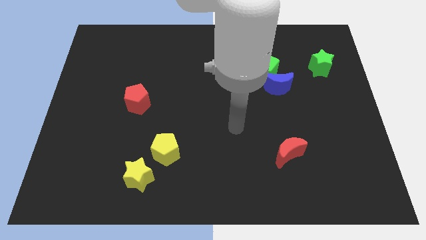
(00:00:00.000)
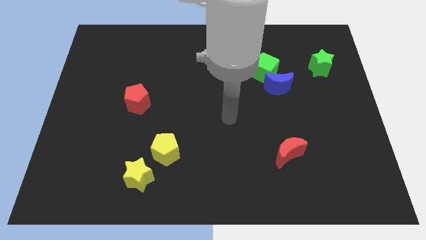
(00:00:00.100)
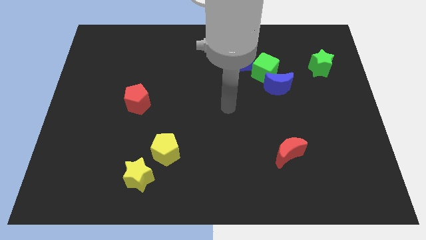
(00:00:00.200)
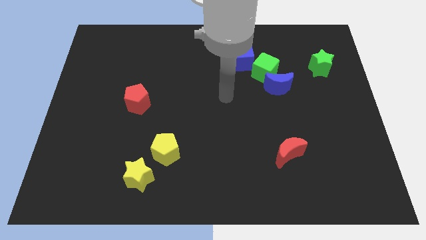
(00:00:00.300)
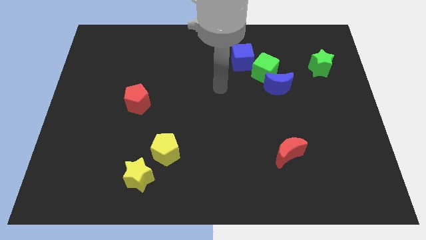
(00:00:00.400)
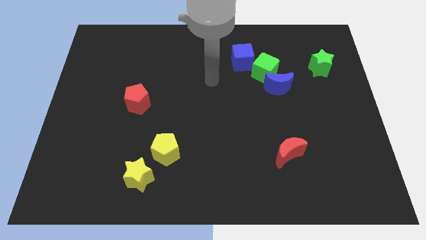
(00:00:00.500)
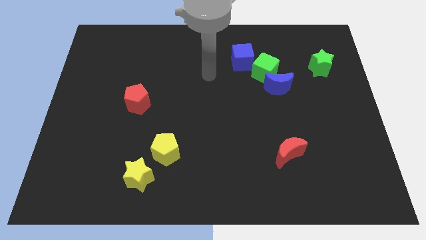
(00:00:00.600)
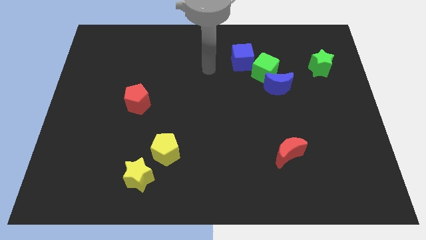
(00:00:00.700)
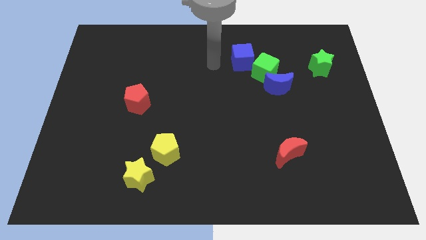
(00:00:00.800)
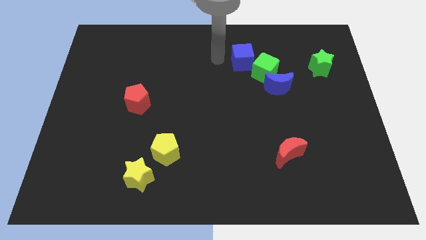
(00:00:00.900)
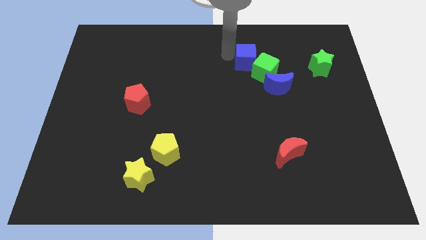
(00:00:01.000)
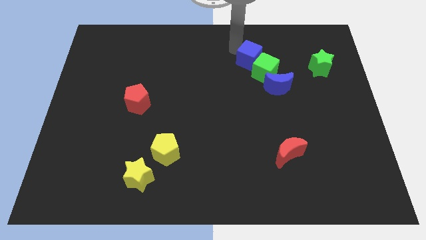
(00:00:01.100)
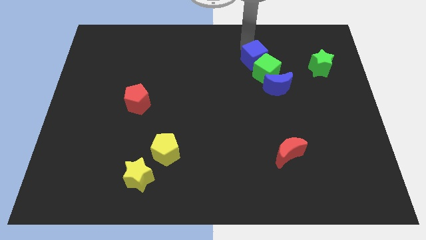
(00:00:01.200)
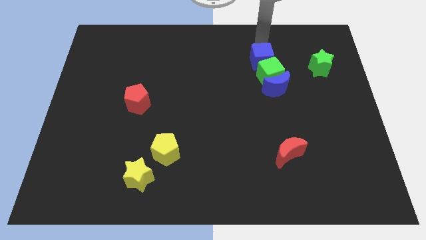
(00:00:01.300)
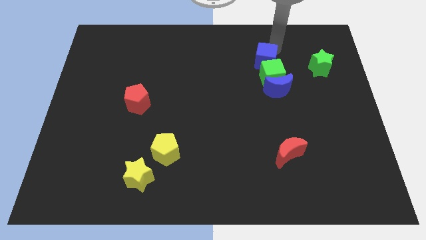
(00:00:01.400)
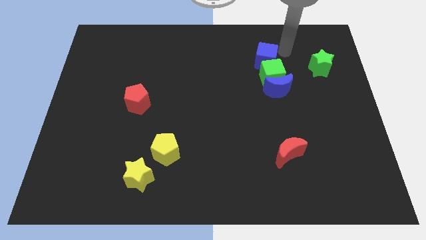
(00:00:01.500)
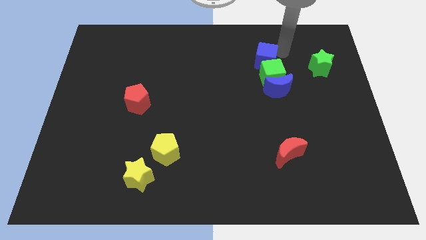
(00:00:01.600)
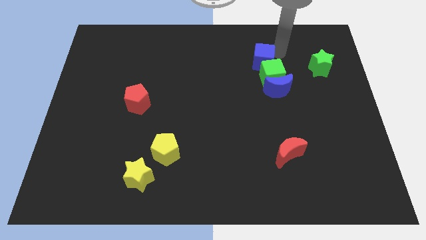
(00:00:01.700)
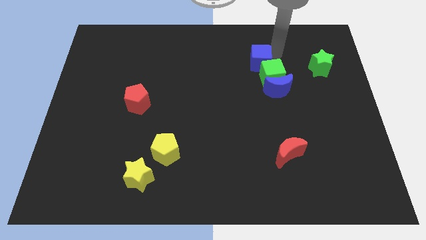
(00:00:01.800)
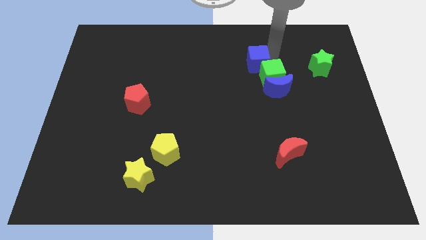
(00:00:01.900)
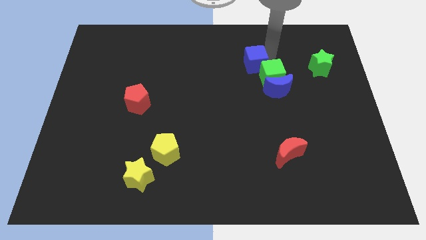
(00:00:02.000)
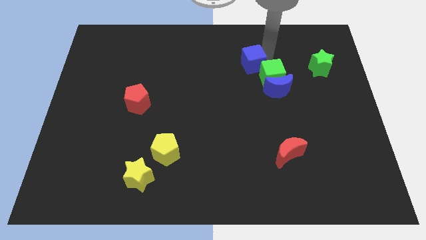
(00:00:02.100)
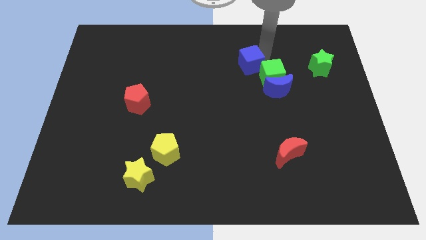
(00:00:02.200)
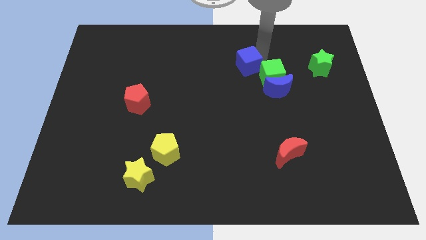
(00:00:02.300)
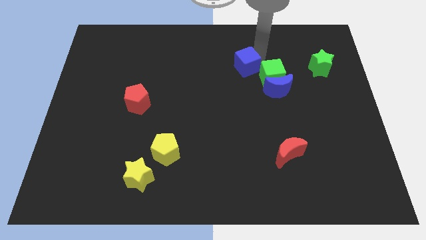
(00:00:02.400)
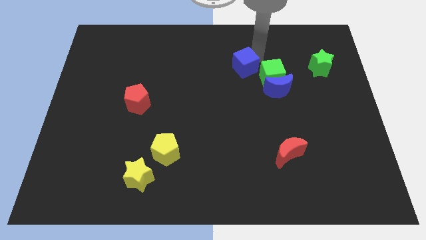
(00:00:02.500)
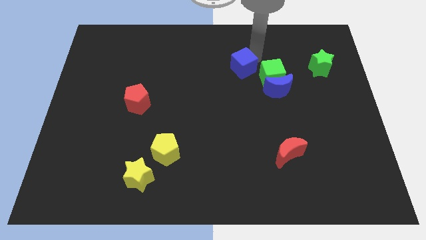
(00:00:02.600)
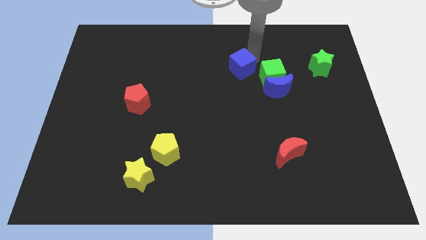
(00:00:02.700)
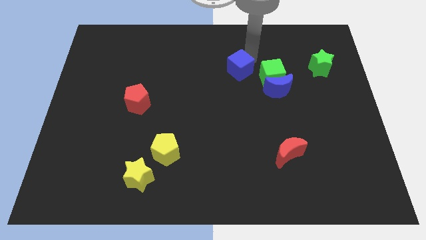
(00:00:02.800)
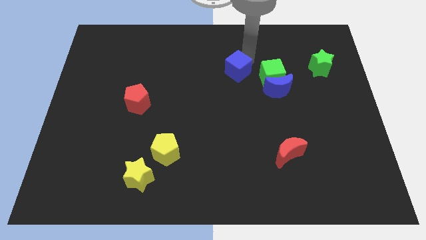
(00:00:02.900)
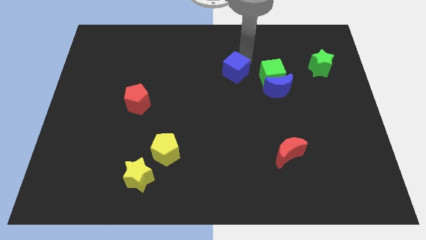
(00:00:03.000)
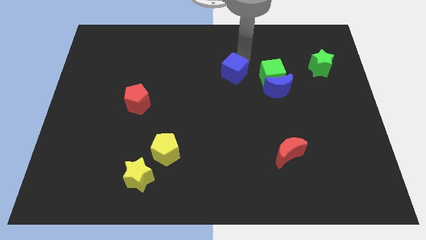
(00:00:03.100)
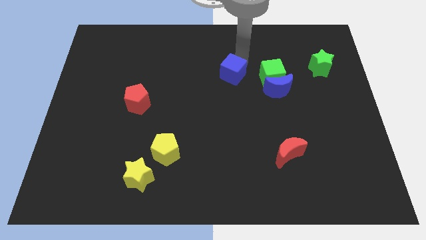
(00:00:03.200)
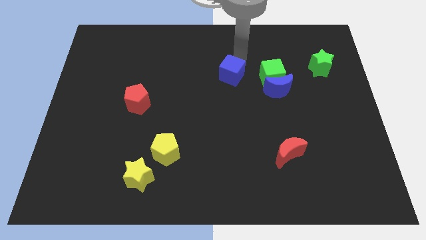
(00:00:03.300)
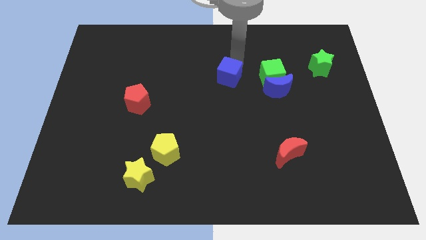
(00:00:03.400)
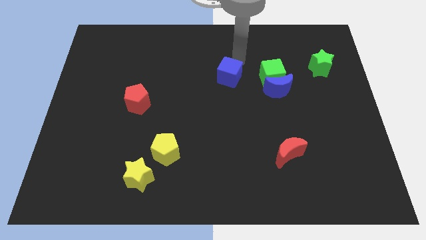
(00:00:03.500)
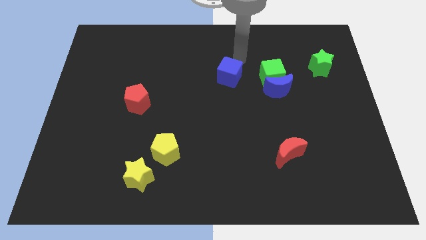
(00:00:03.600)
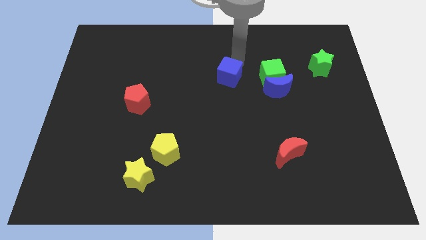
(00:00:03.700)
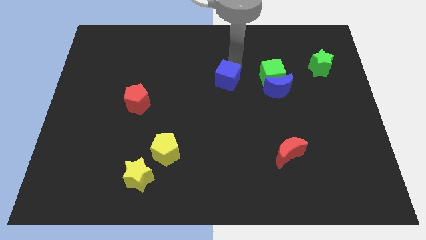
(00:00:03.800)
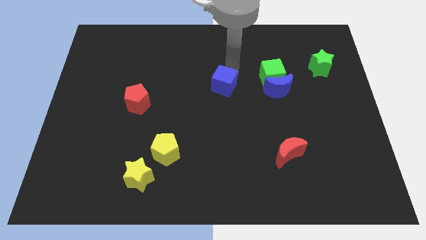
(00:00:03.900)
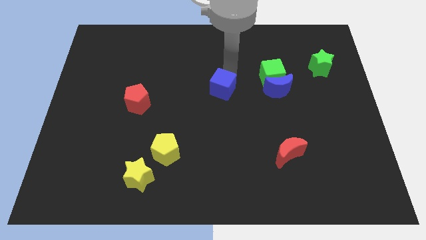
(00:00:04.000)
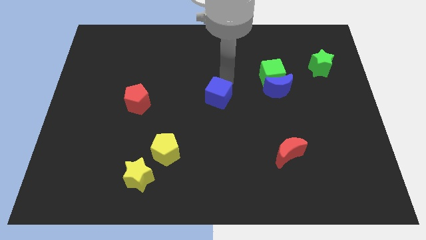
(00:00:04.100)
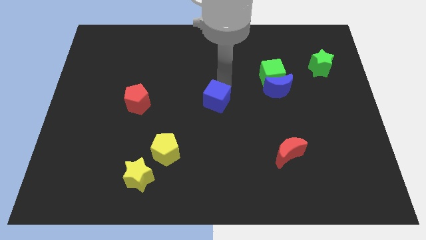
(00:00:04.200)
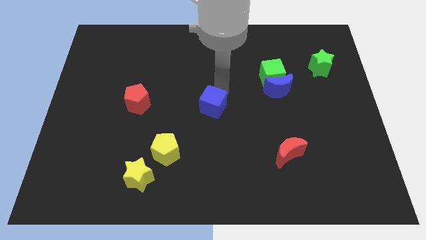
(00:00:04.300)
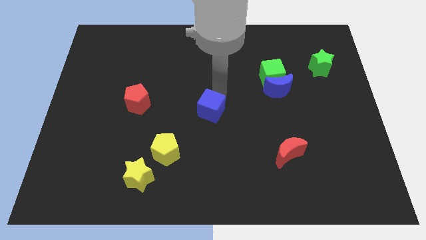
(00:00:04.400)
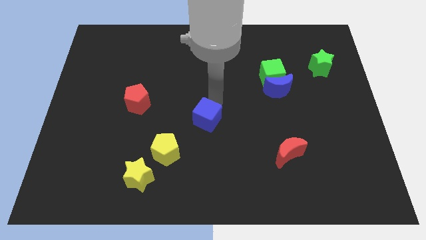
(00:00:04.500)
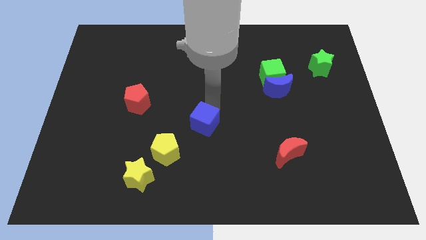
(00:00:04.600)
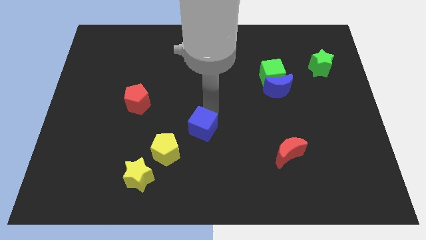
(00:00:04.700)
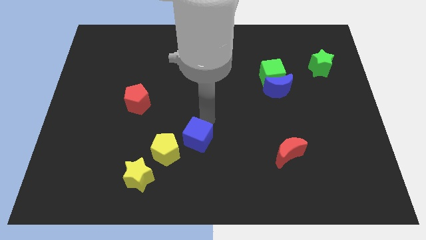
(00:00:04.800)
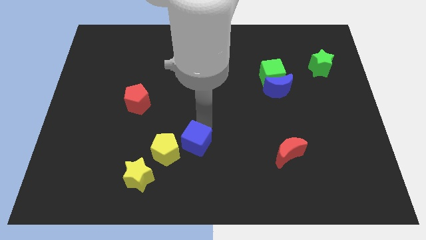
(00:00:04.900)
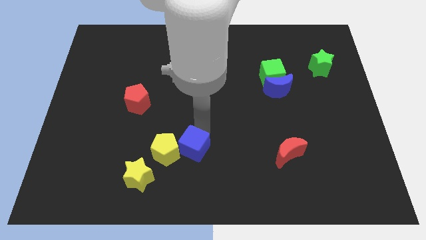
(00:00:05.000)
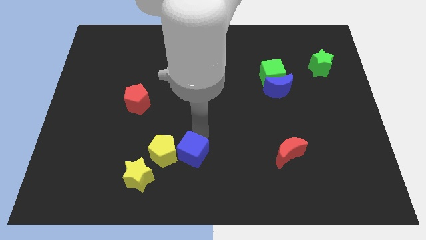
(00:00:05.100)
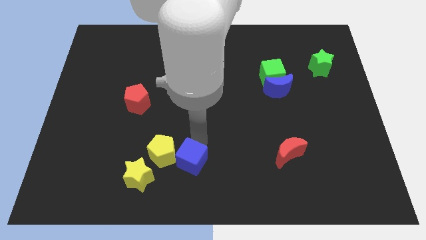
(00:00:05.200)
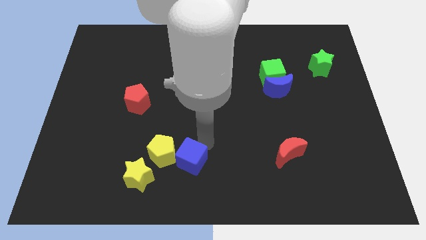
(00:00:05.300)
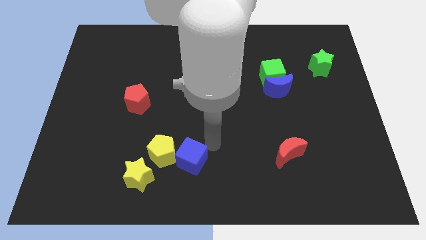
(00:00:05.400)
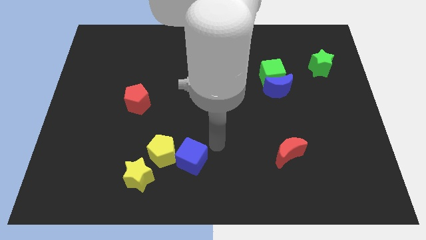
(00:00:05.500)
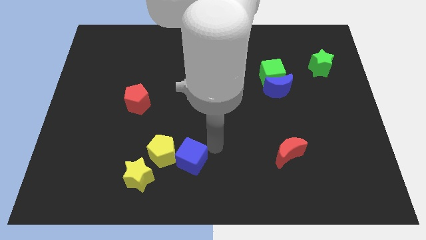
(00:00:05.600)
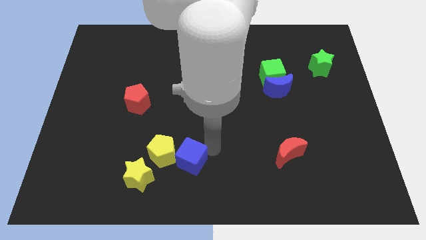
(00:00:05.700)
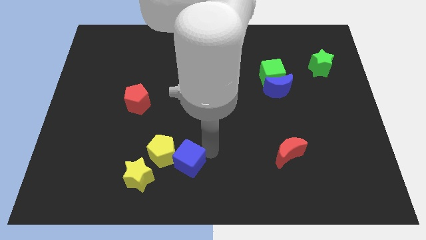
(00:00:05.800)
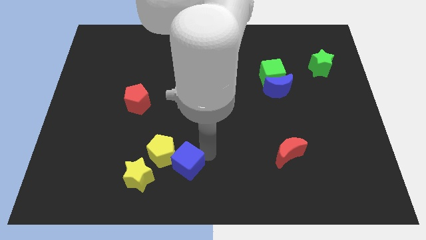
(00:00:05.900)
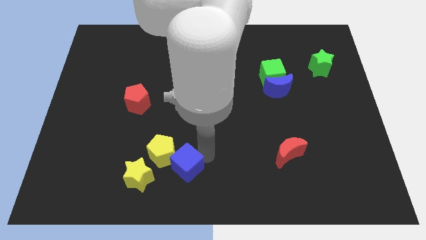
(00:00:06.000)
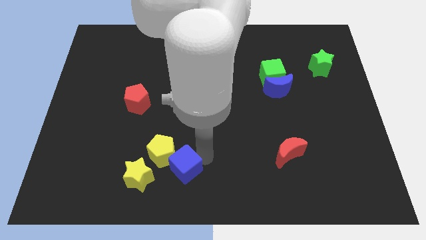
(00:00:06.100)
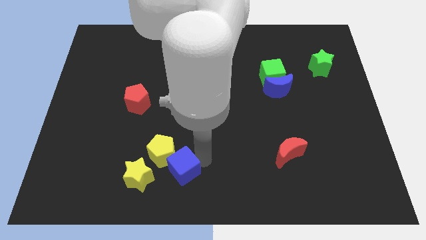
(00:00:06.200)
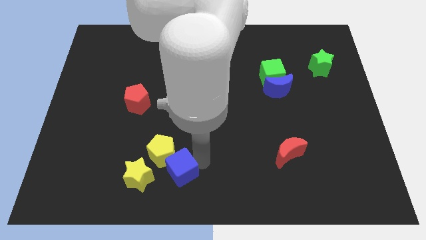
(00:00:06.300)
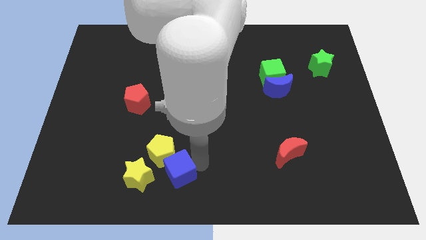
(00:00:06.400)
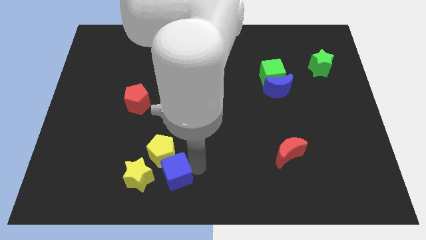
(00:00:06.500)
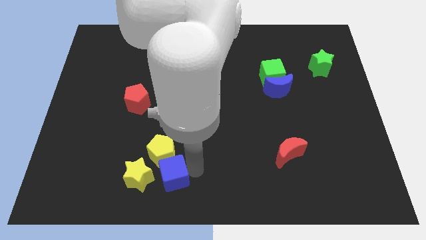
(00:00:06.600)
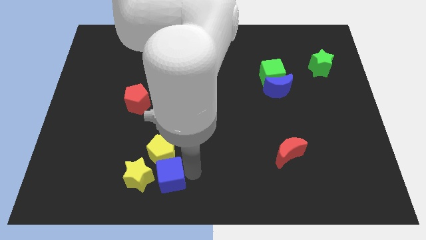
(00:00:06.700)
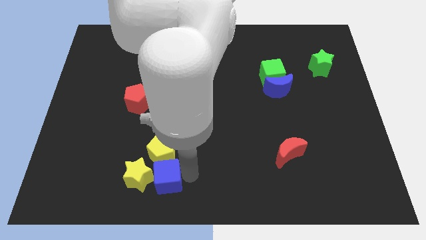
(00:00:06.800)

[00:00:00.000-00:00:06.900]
push the blue cube next to the yellow star
